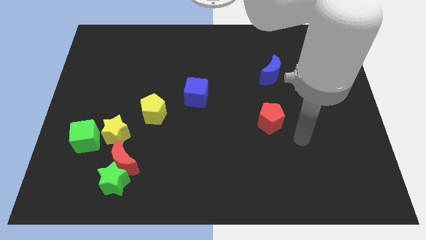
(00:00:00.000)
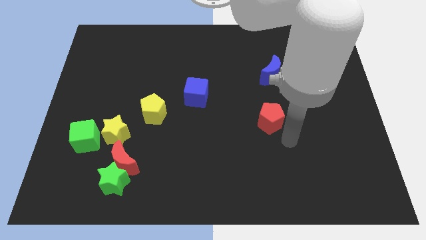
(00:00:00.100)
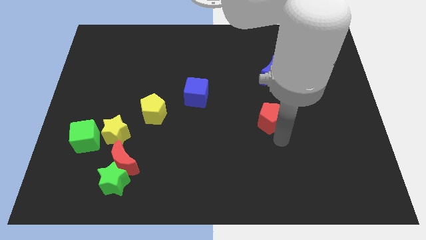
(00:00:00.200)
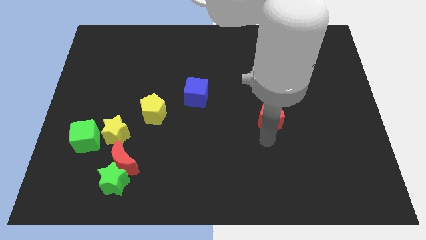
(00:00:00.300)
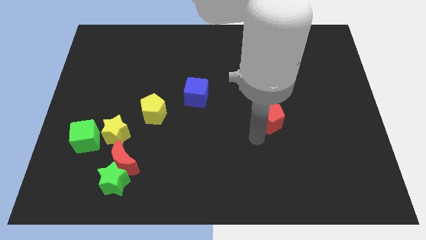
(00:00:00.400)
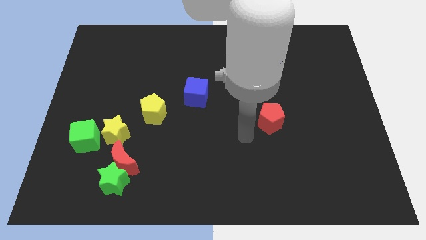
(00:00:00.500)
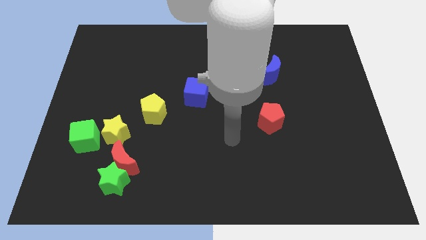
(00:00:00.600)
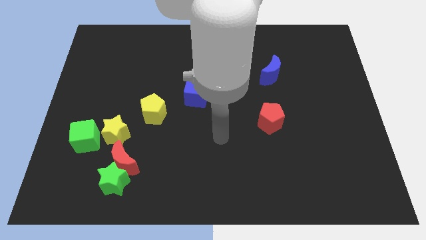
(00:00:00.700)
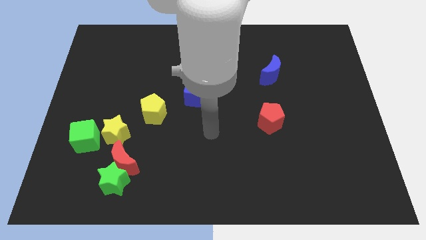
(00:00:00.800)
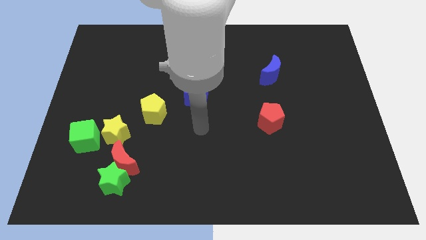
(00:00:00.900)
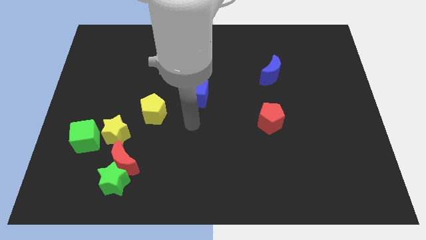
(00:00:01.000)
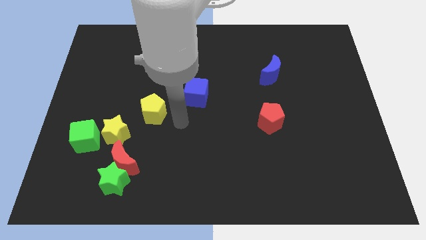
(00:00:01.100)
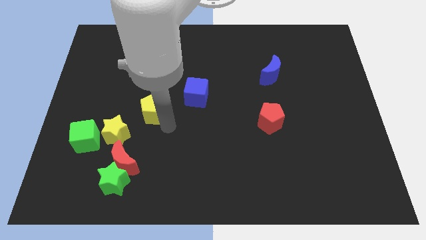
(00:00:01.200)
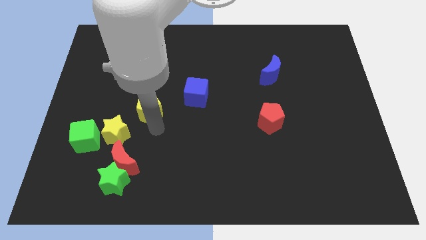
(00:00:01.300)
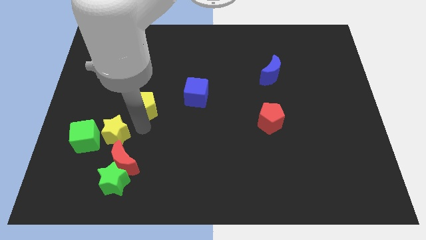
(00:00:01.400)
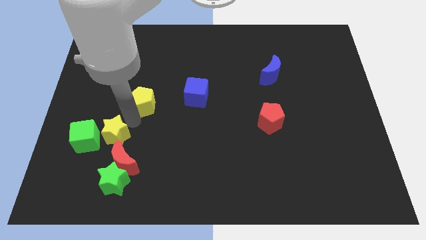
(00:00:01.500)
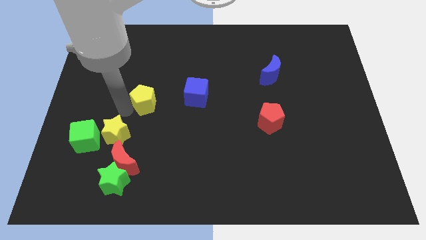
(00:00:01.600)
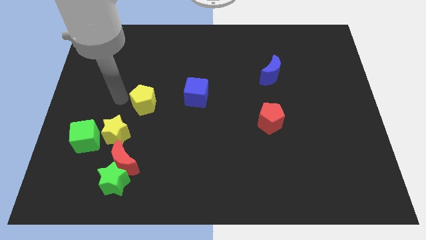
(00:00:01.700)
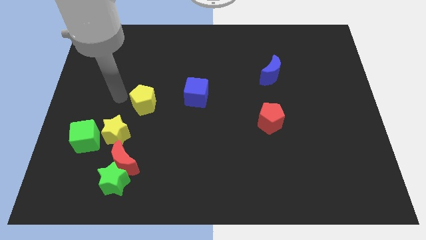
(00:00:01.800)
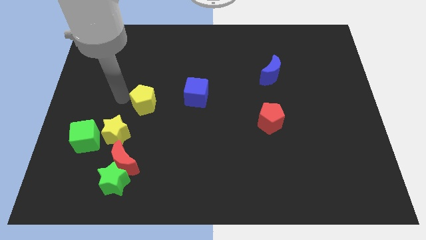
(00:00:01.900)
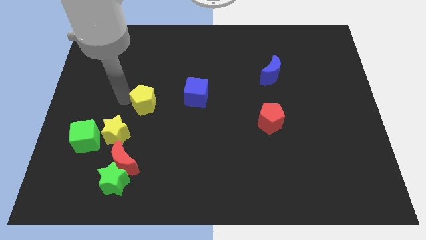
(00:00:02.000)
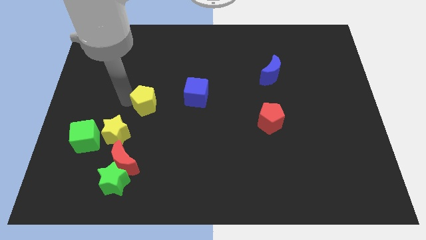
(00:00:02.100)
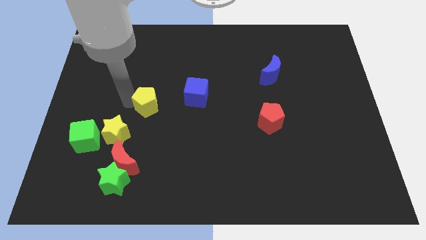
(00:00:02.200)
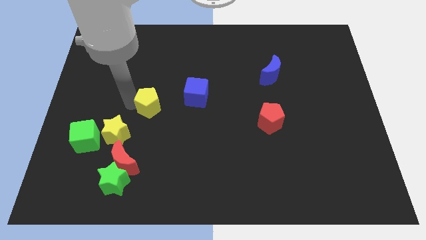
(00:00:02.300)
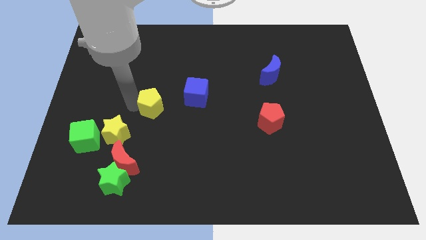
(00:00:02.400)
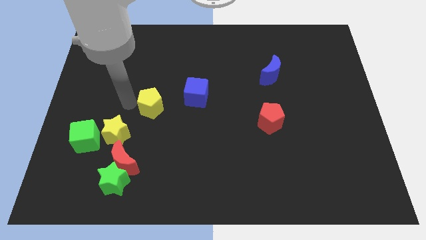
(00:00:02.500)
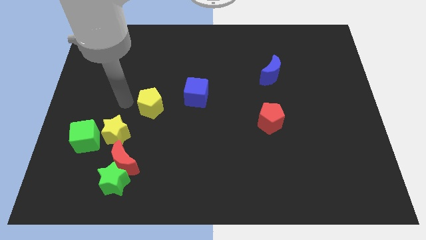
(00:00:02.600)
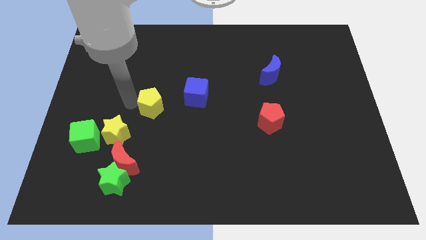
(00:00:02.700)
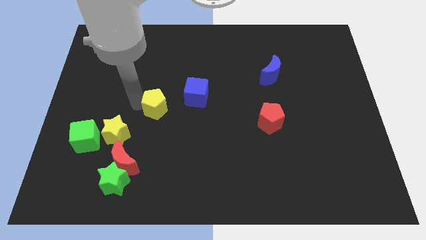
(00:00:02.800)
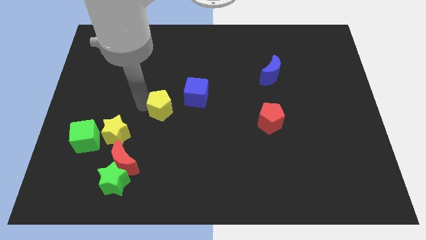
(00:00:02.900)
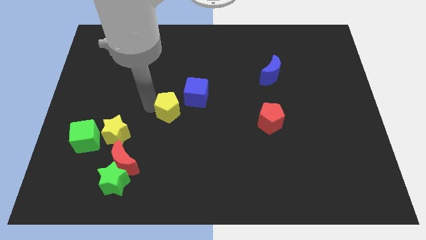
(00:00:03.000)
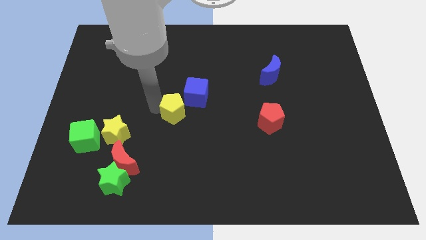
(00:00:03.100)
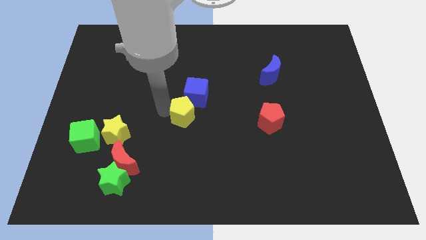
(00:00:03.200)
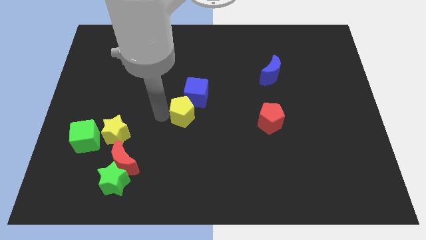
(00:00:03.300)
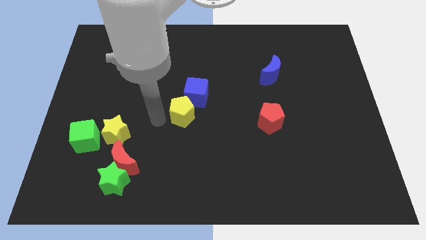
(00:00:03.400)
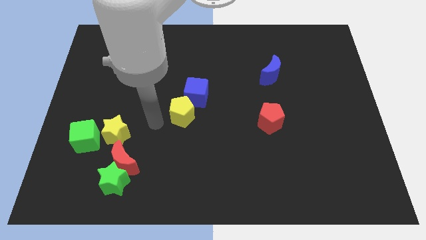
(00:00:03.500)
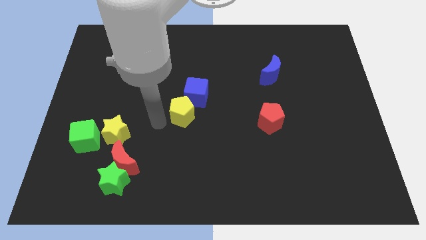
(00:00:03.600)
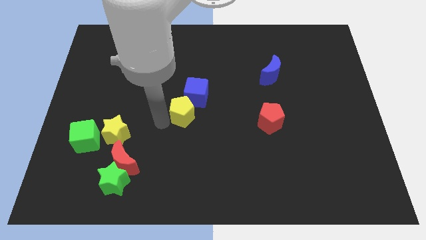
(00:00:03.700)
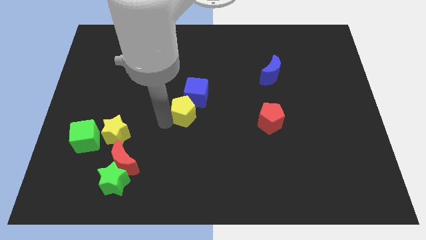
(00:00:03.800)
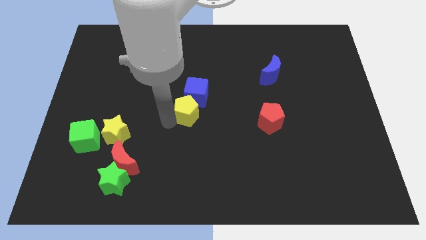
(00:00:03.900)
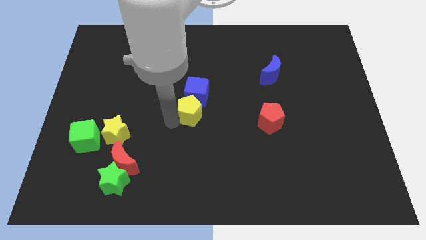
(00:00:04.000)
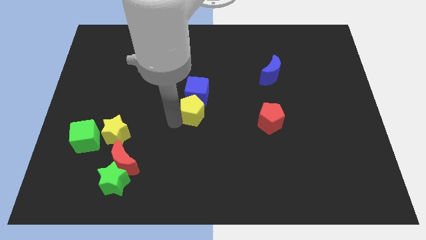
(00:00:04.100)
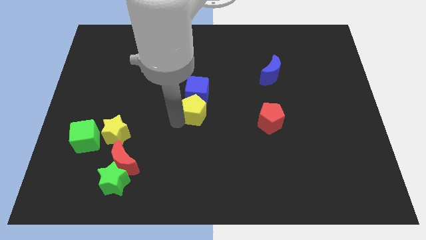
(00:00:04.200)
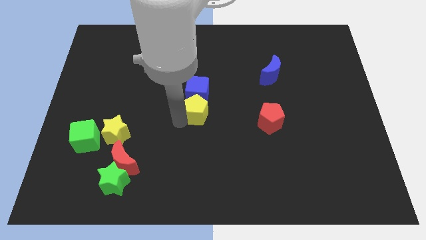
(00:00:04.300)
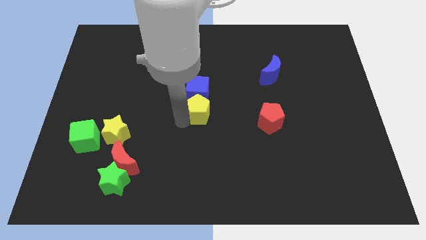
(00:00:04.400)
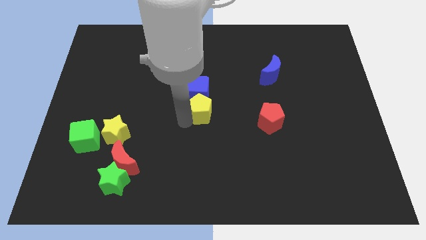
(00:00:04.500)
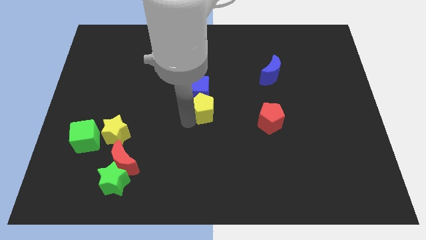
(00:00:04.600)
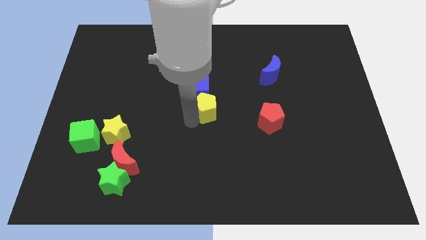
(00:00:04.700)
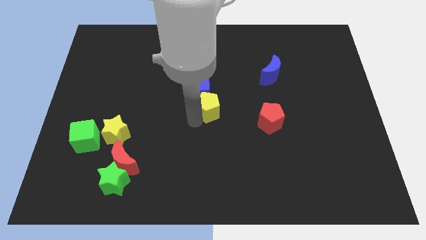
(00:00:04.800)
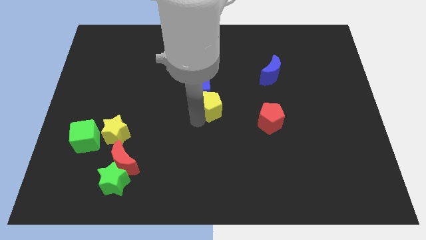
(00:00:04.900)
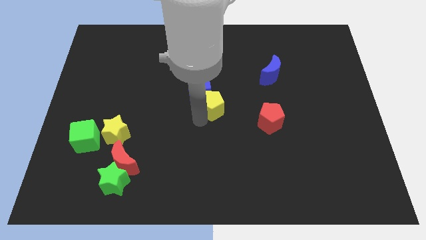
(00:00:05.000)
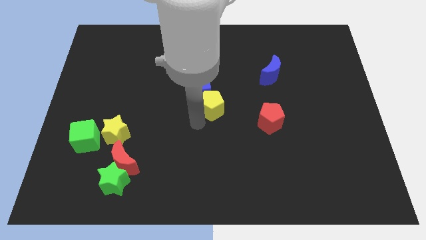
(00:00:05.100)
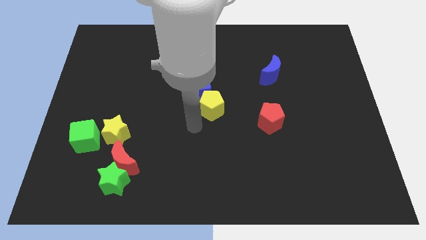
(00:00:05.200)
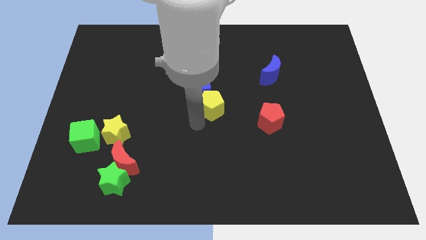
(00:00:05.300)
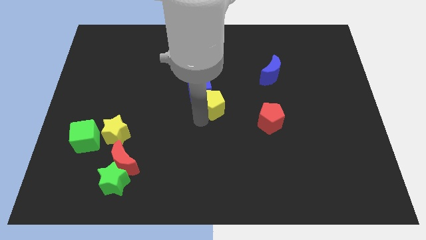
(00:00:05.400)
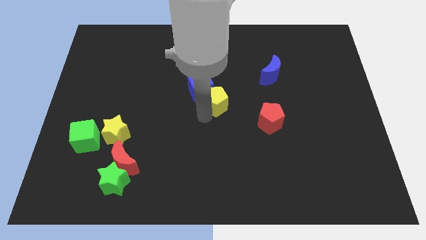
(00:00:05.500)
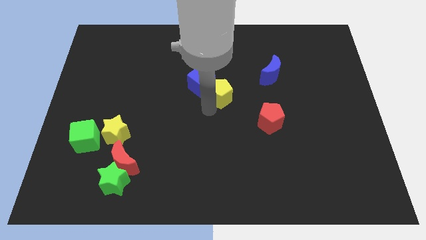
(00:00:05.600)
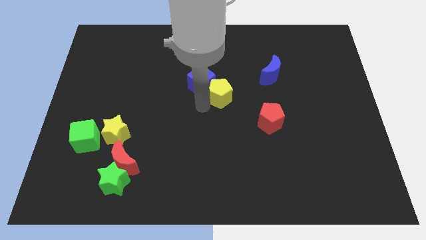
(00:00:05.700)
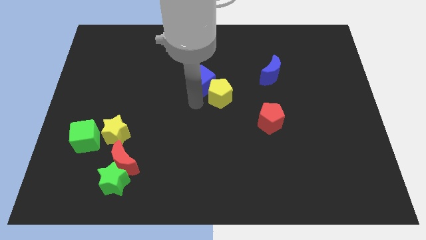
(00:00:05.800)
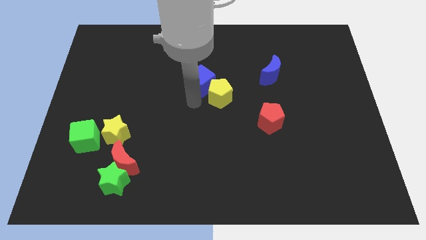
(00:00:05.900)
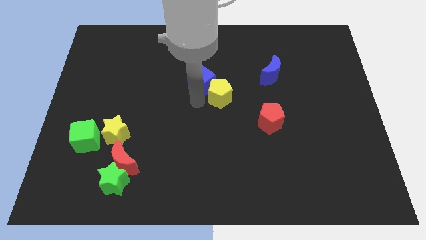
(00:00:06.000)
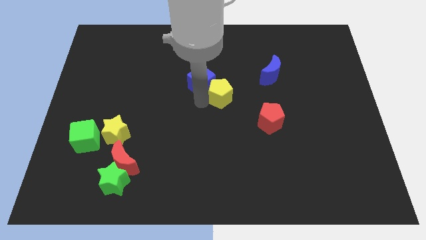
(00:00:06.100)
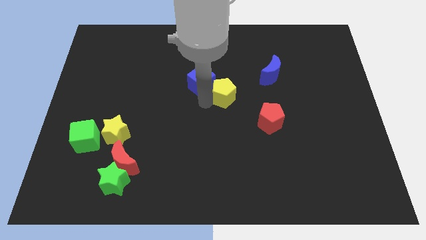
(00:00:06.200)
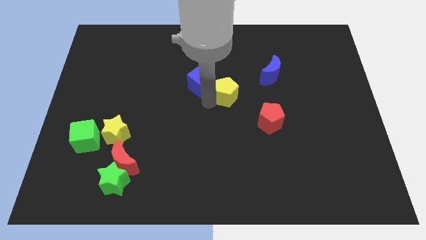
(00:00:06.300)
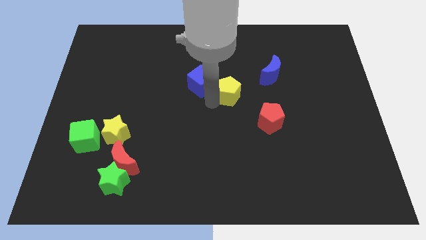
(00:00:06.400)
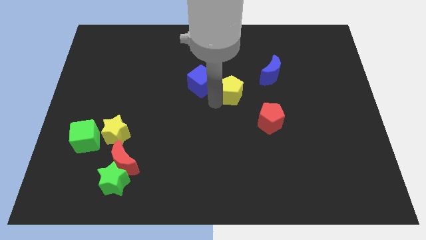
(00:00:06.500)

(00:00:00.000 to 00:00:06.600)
move the yellow pentagon diagonally down and to the left of the blue moon
